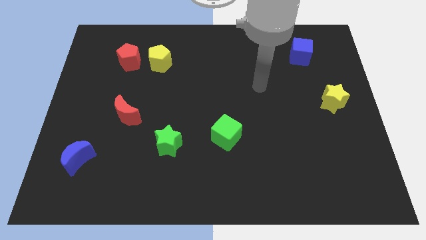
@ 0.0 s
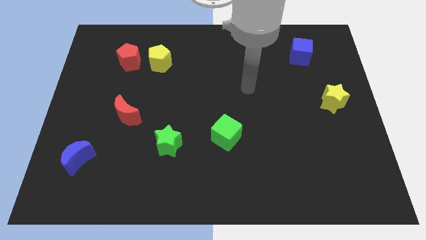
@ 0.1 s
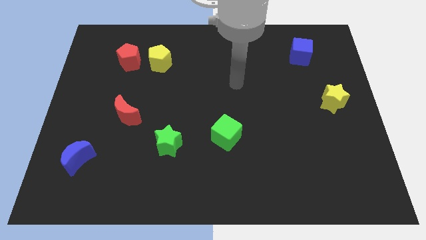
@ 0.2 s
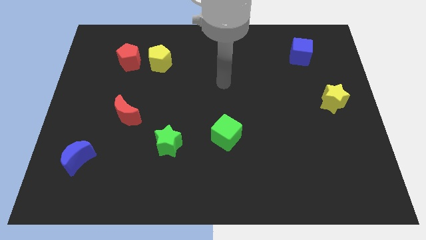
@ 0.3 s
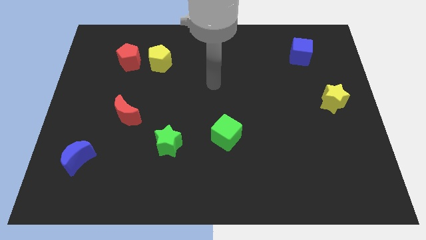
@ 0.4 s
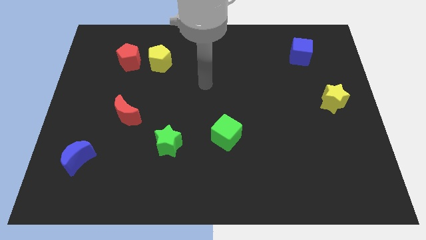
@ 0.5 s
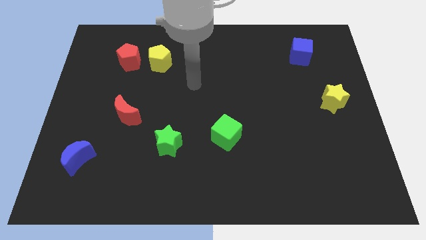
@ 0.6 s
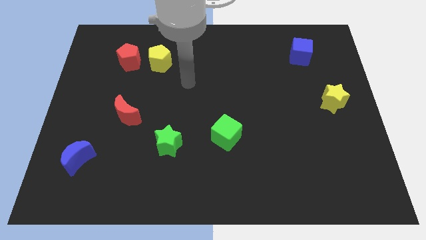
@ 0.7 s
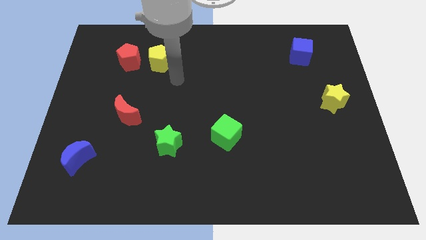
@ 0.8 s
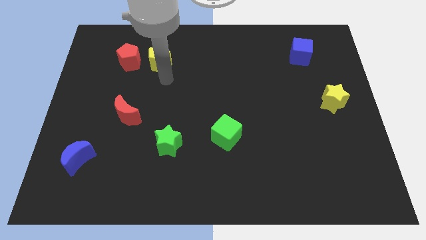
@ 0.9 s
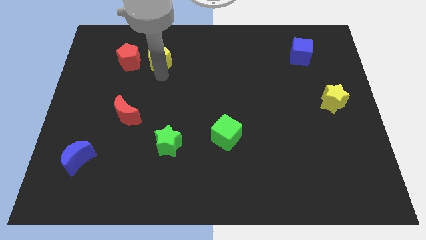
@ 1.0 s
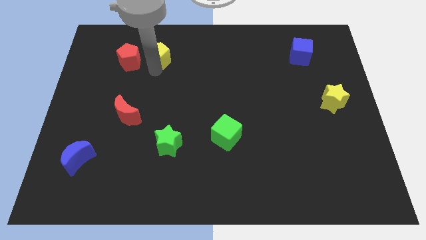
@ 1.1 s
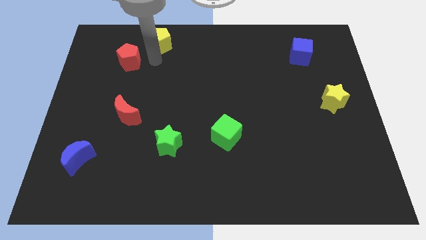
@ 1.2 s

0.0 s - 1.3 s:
pull the red pentagon apart from the yellow pentagon

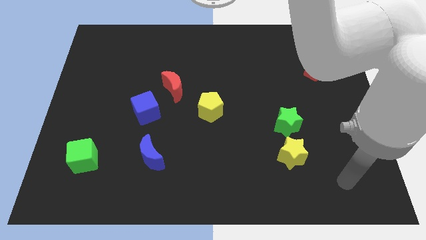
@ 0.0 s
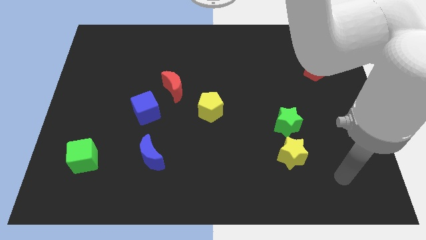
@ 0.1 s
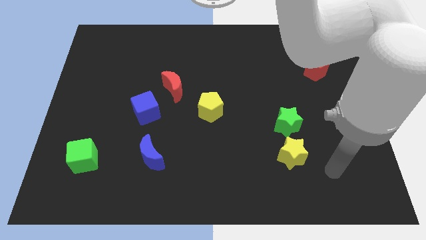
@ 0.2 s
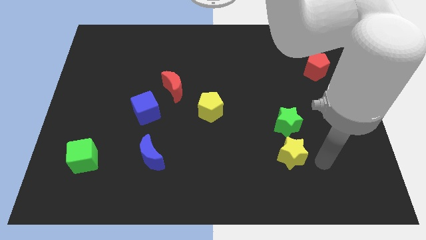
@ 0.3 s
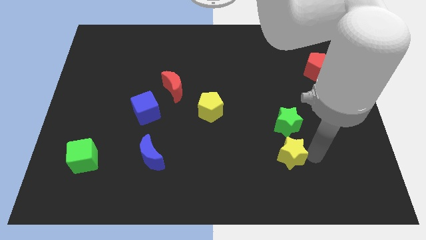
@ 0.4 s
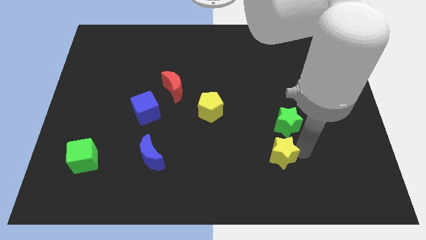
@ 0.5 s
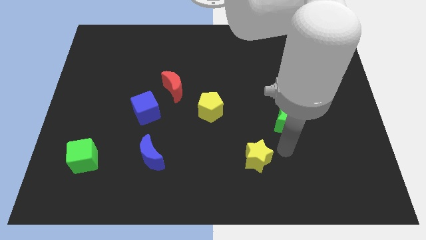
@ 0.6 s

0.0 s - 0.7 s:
move the green star away from the yellow star

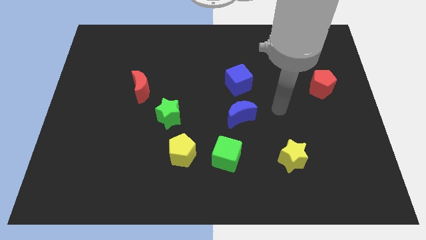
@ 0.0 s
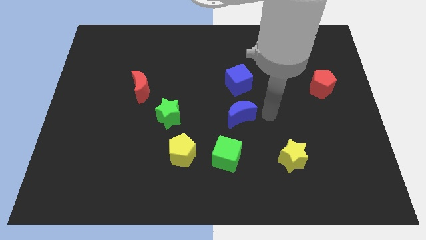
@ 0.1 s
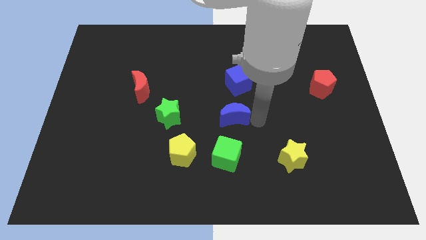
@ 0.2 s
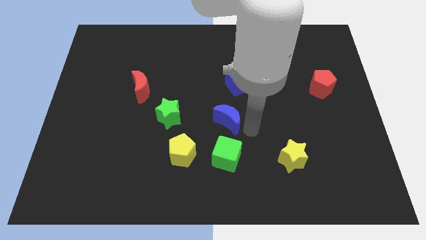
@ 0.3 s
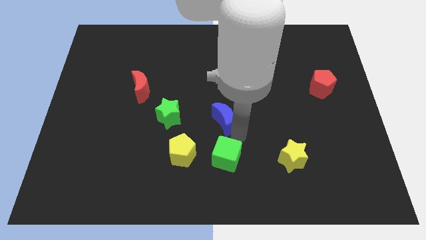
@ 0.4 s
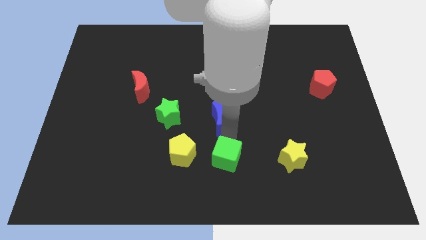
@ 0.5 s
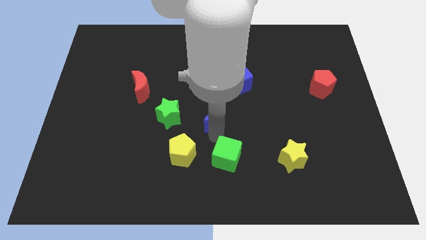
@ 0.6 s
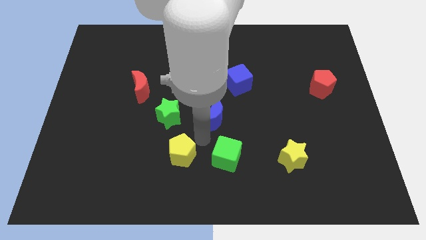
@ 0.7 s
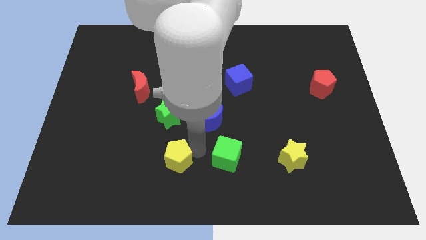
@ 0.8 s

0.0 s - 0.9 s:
separate the green cube from the yellow pentagon

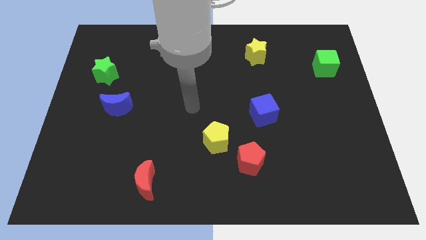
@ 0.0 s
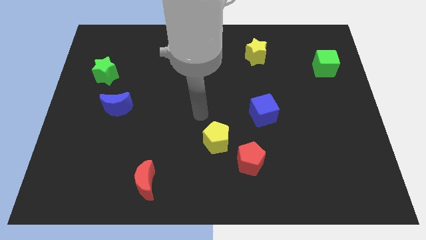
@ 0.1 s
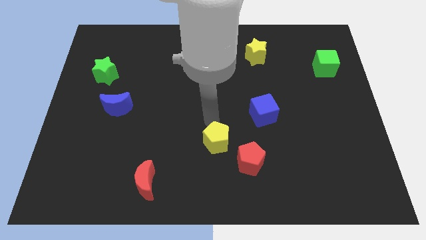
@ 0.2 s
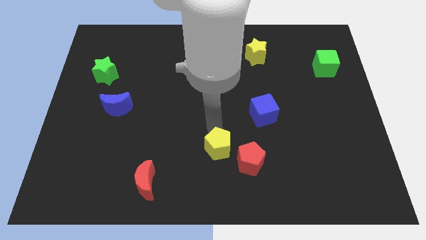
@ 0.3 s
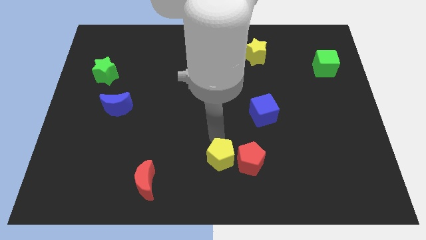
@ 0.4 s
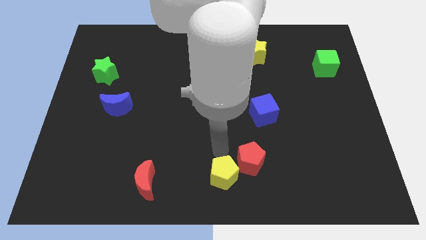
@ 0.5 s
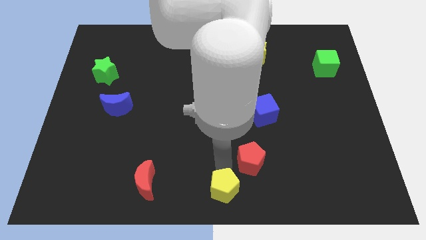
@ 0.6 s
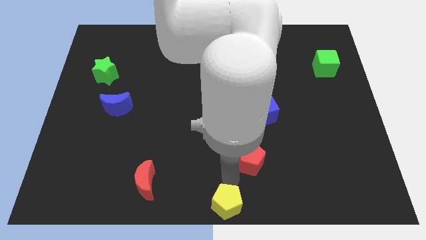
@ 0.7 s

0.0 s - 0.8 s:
separate the red pentagon from the yellow pentagon

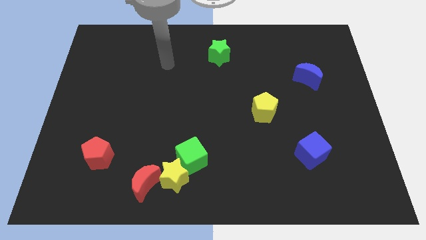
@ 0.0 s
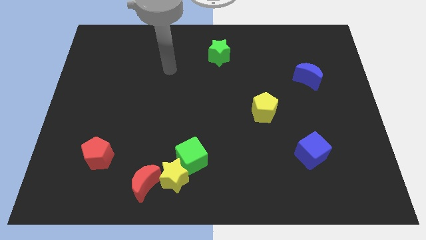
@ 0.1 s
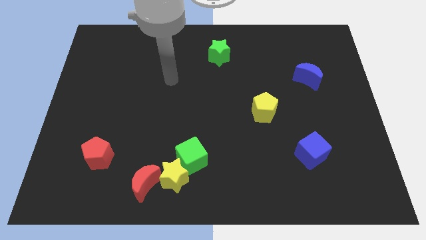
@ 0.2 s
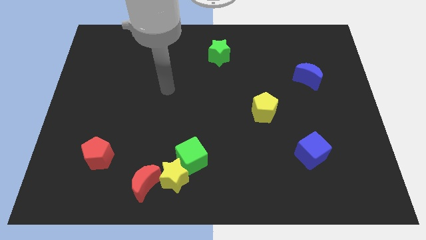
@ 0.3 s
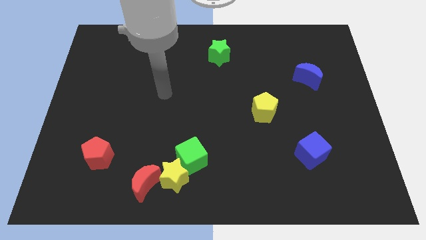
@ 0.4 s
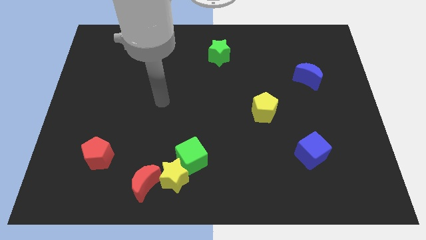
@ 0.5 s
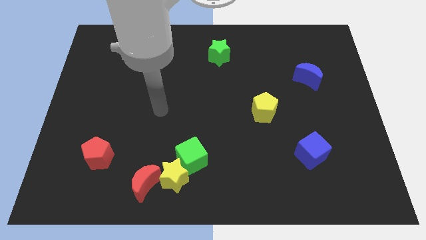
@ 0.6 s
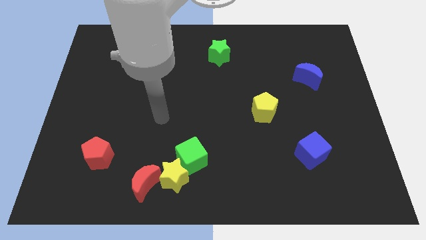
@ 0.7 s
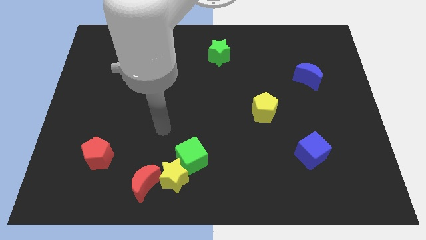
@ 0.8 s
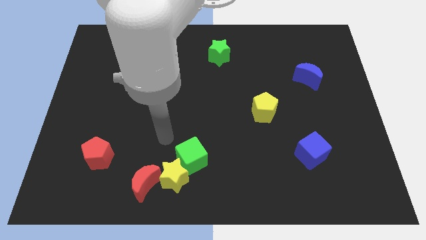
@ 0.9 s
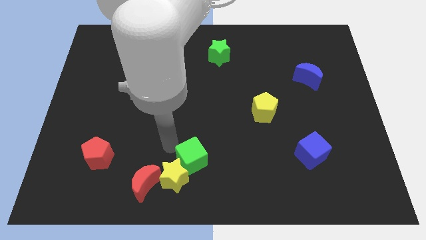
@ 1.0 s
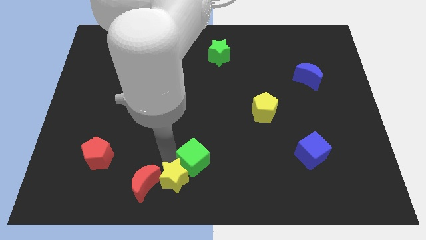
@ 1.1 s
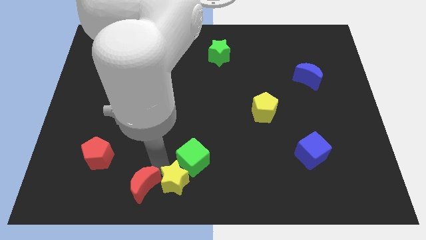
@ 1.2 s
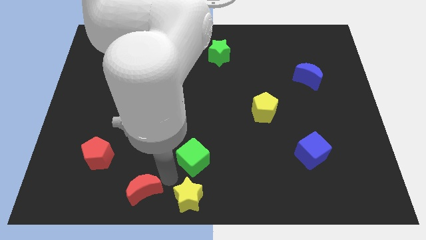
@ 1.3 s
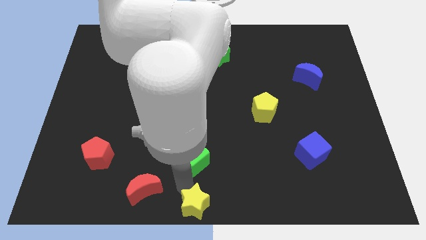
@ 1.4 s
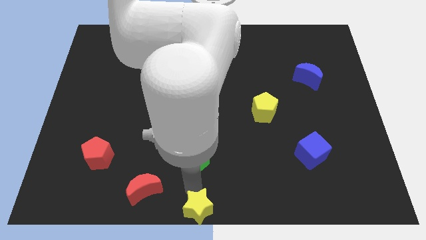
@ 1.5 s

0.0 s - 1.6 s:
move the green cube away from the yellow star

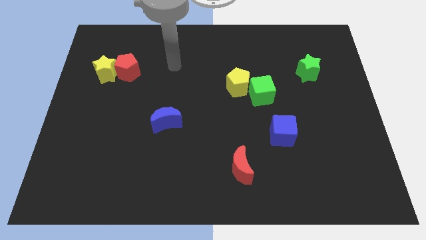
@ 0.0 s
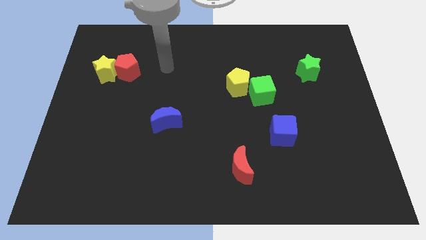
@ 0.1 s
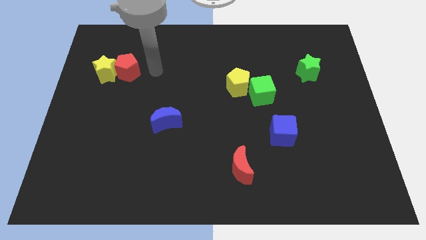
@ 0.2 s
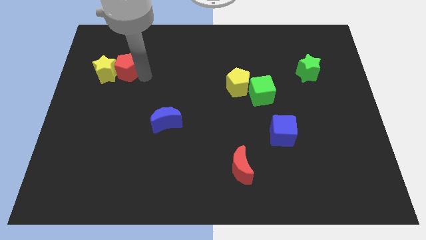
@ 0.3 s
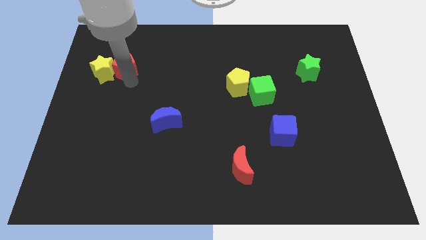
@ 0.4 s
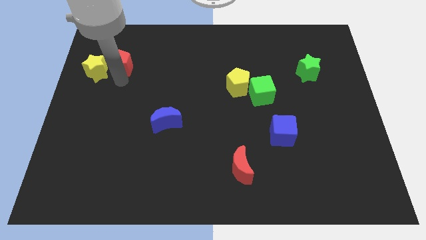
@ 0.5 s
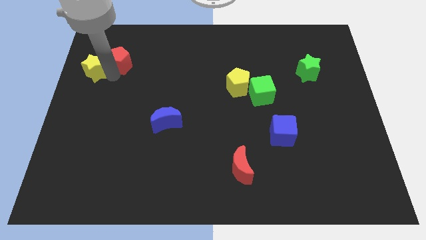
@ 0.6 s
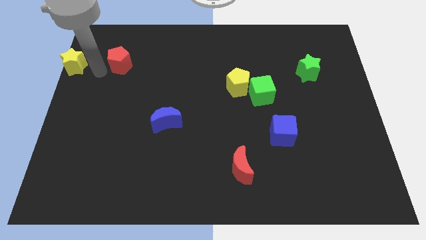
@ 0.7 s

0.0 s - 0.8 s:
move the red pentagon away from the yellow star

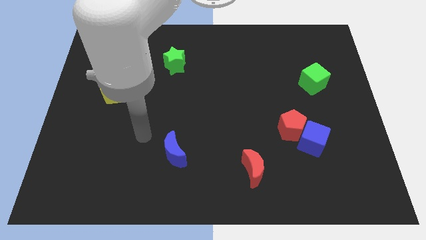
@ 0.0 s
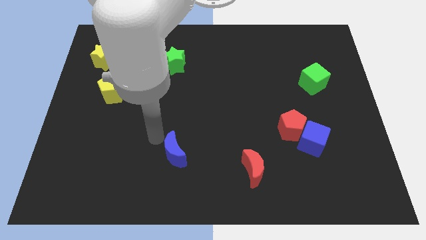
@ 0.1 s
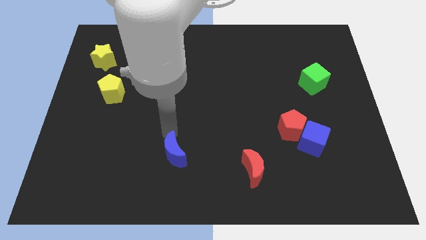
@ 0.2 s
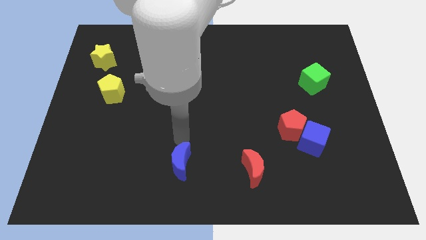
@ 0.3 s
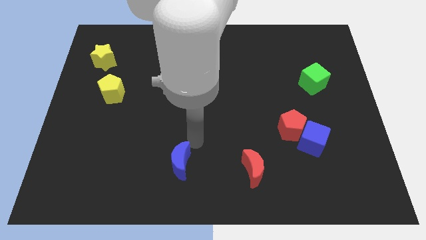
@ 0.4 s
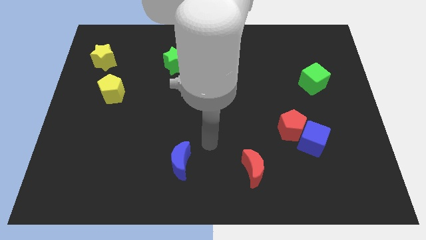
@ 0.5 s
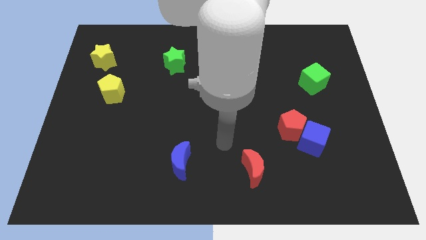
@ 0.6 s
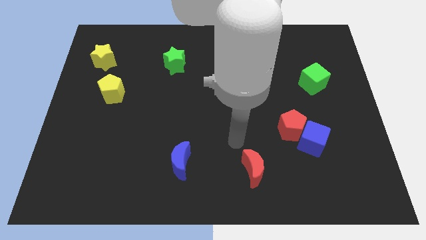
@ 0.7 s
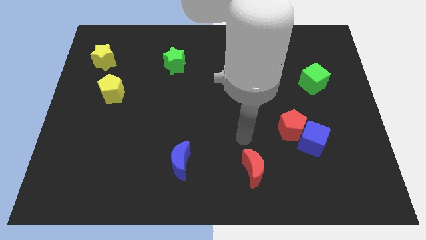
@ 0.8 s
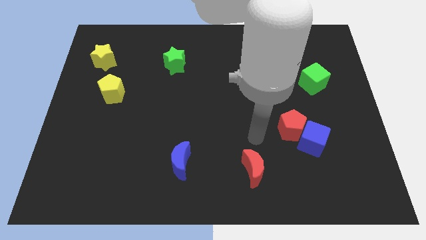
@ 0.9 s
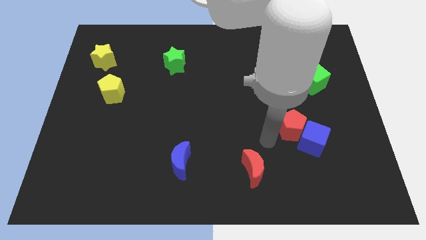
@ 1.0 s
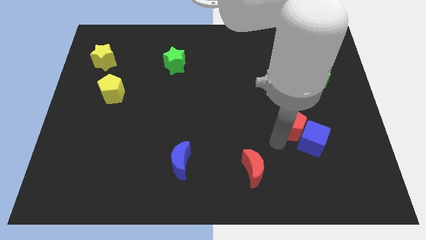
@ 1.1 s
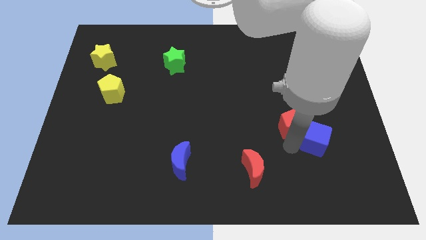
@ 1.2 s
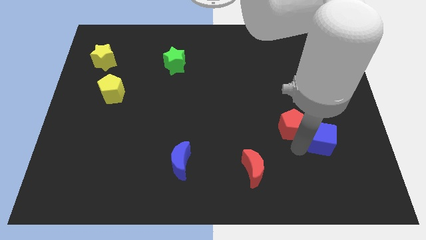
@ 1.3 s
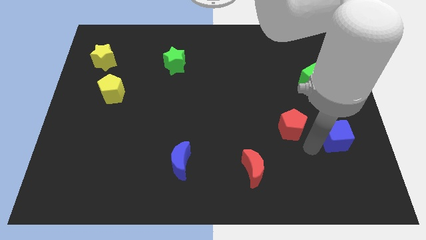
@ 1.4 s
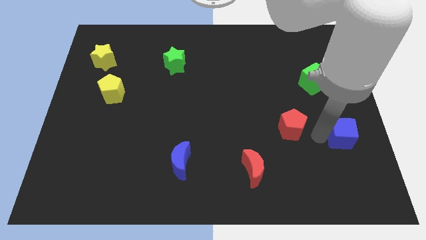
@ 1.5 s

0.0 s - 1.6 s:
move the red pentagon away from the blue cube

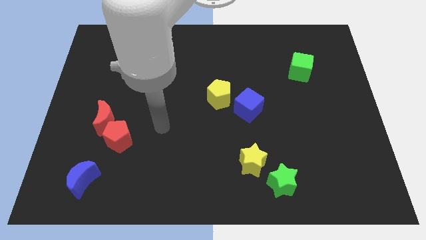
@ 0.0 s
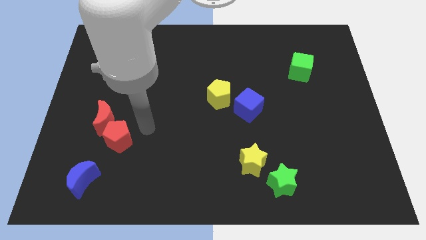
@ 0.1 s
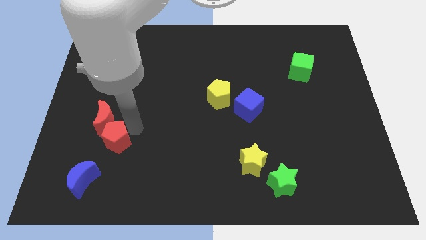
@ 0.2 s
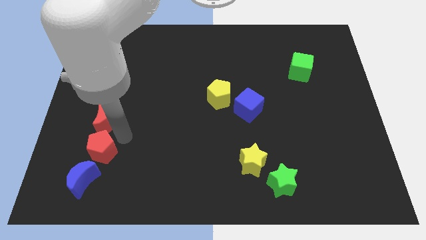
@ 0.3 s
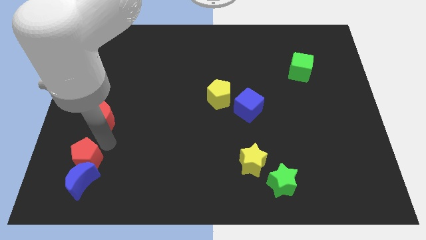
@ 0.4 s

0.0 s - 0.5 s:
pull the red moon apart from the red pentagon

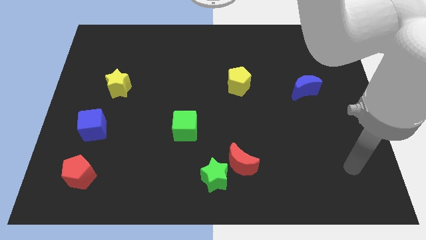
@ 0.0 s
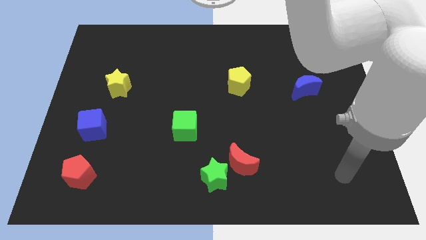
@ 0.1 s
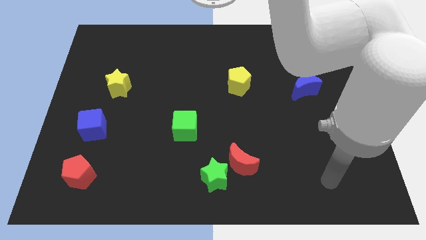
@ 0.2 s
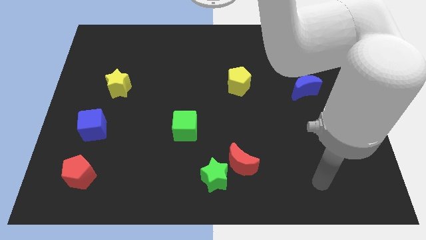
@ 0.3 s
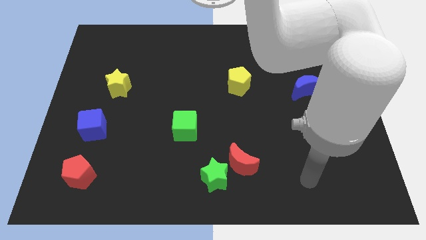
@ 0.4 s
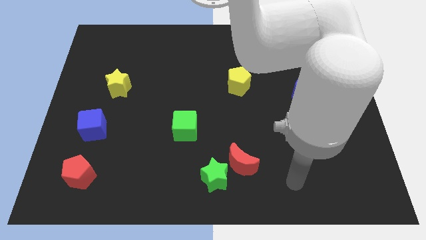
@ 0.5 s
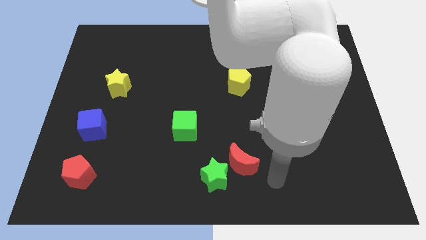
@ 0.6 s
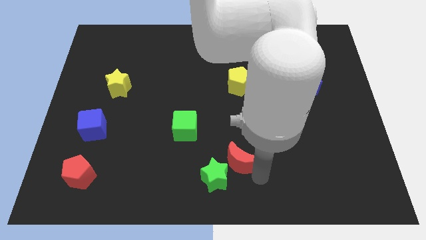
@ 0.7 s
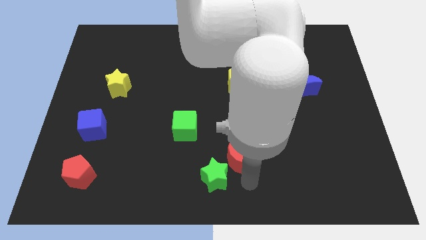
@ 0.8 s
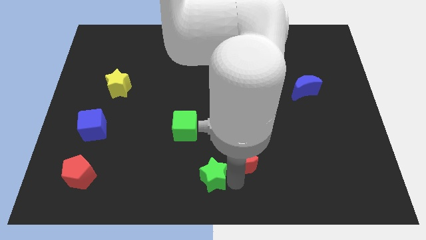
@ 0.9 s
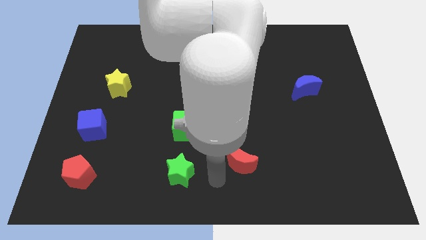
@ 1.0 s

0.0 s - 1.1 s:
pull the red moon apart from the green star
